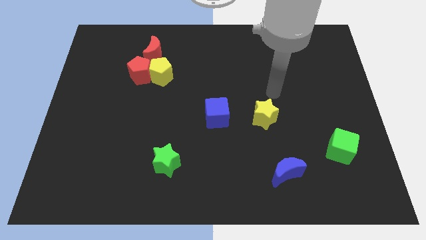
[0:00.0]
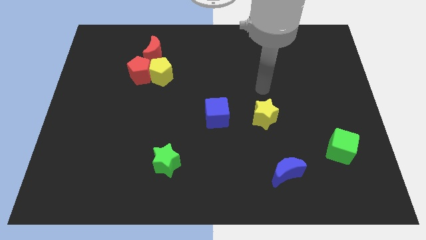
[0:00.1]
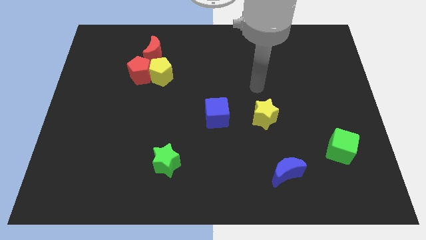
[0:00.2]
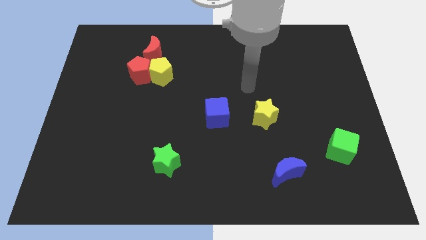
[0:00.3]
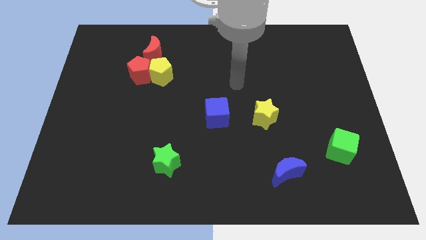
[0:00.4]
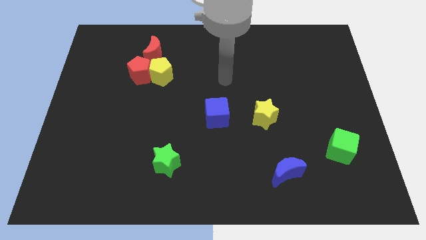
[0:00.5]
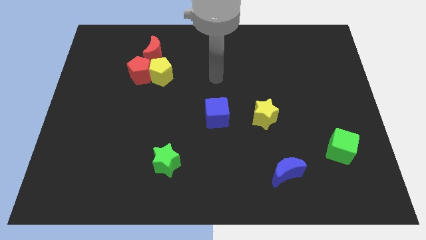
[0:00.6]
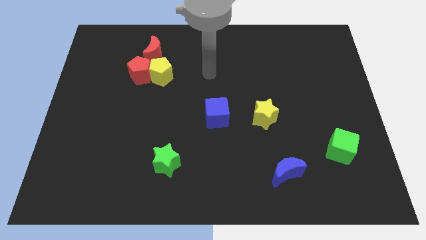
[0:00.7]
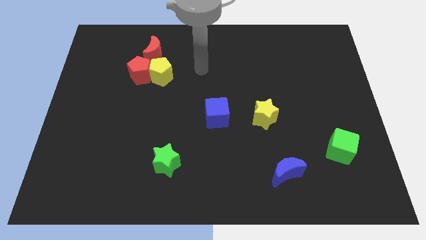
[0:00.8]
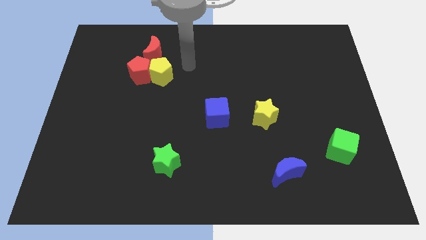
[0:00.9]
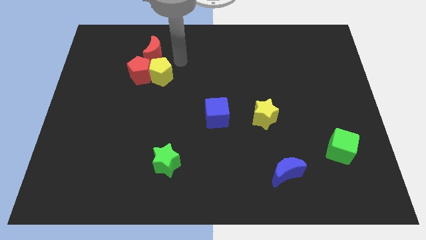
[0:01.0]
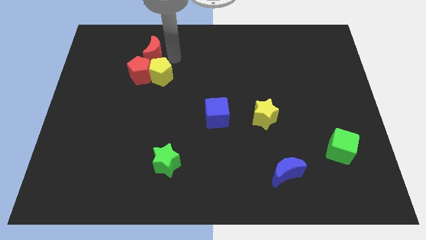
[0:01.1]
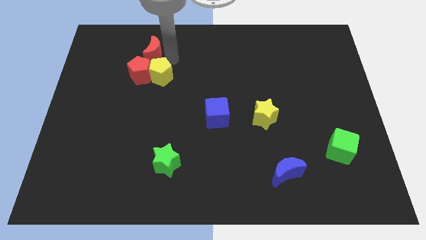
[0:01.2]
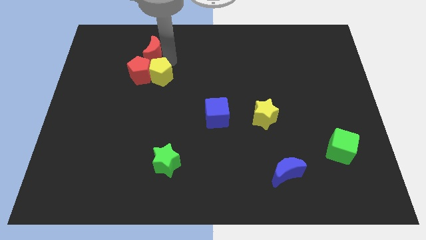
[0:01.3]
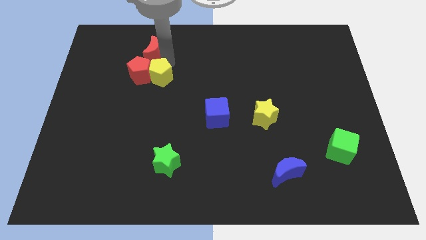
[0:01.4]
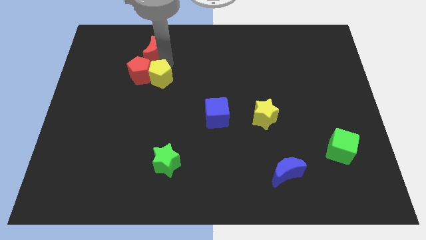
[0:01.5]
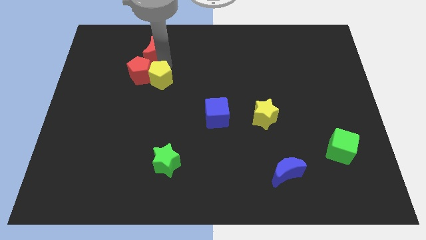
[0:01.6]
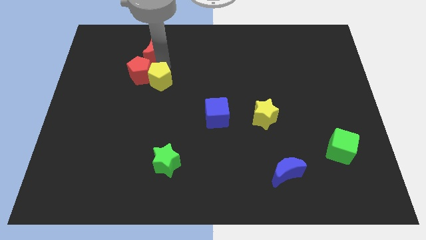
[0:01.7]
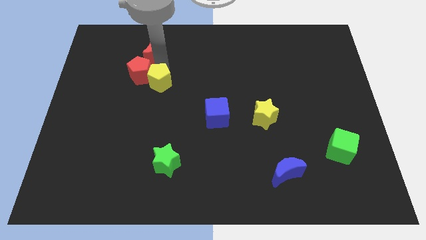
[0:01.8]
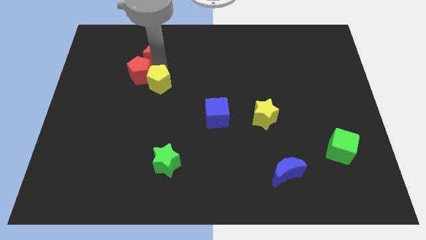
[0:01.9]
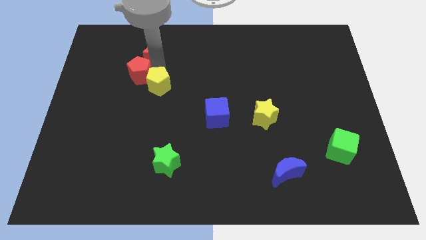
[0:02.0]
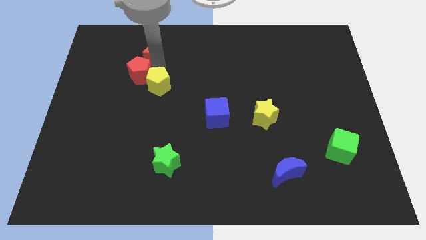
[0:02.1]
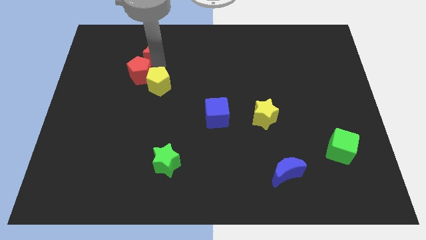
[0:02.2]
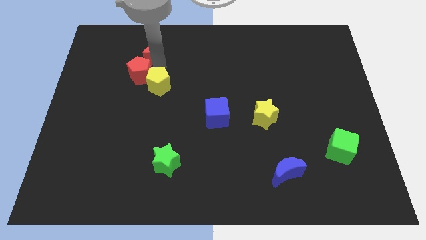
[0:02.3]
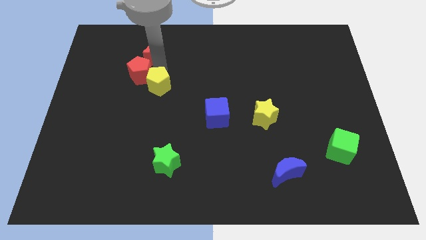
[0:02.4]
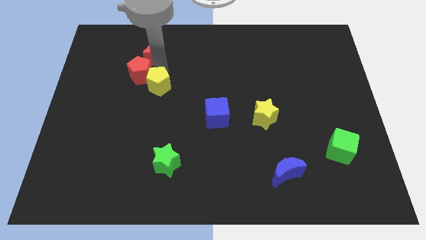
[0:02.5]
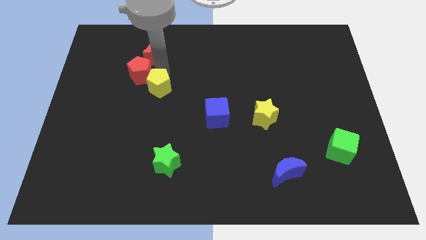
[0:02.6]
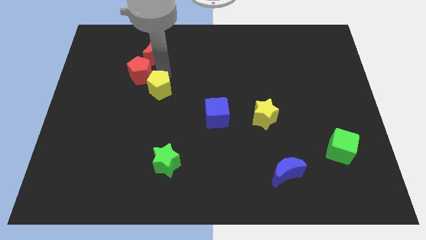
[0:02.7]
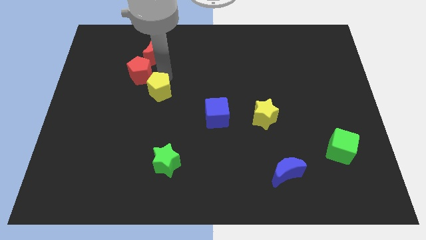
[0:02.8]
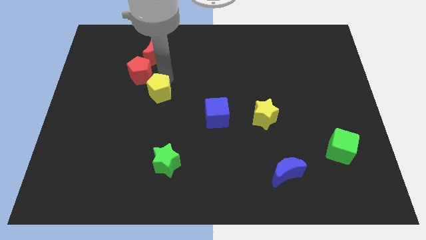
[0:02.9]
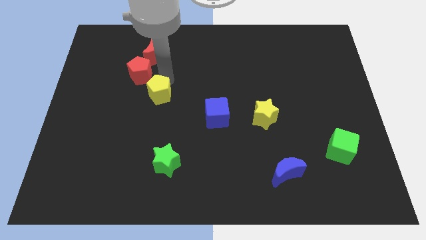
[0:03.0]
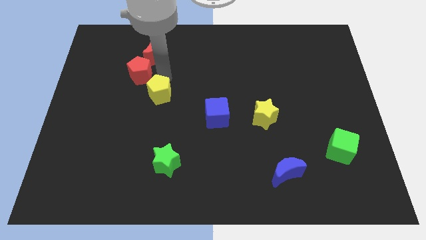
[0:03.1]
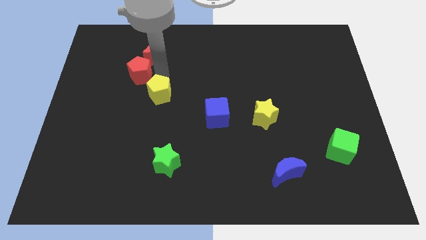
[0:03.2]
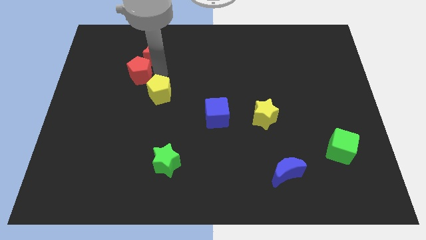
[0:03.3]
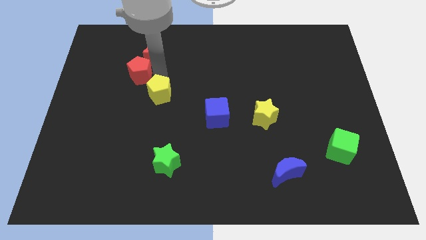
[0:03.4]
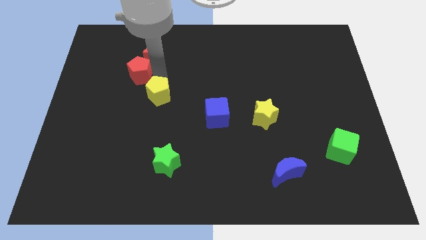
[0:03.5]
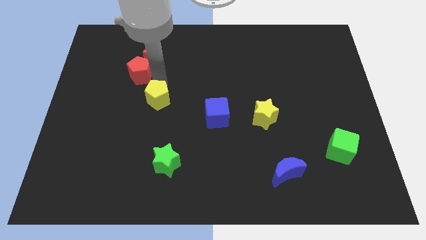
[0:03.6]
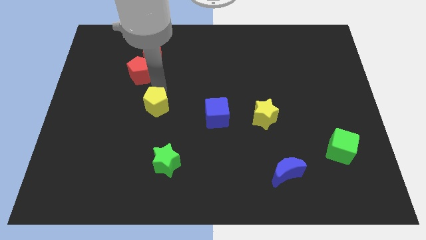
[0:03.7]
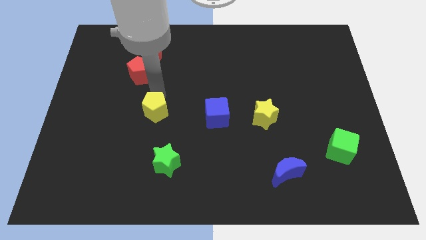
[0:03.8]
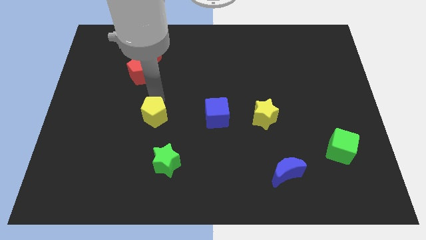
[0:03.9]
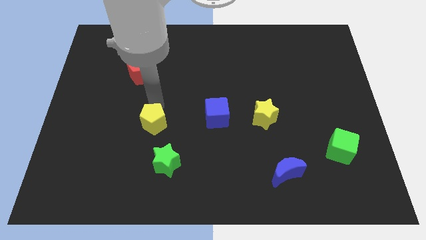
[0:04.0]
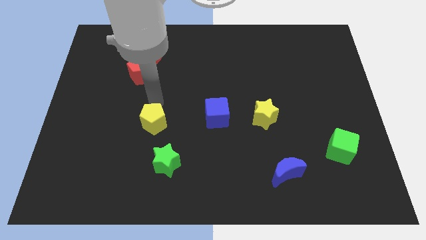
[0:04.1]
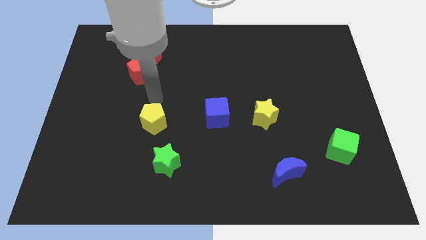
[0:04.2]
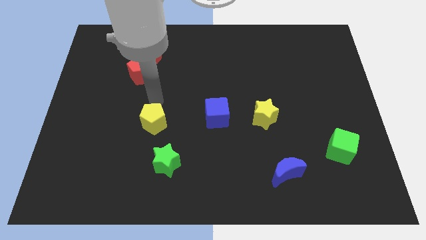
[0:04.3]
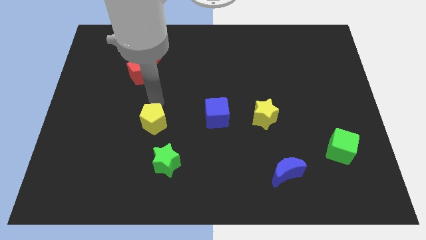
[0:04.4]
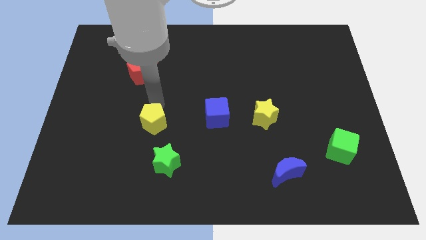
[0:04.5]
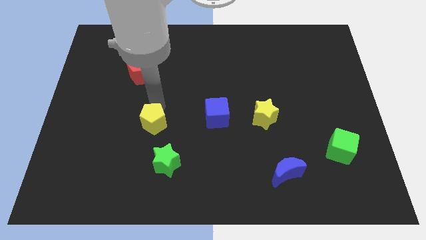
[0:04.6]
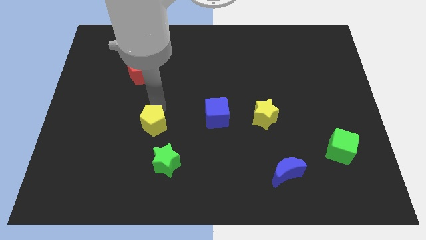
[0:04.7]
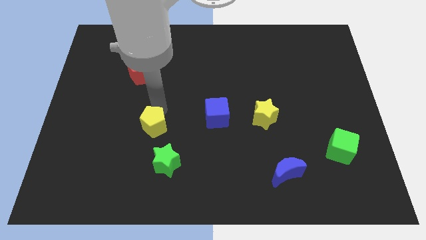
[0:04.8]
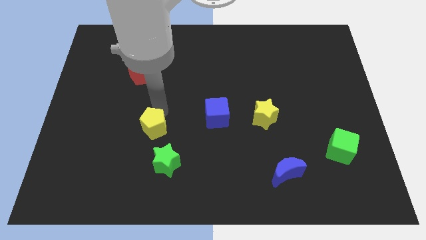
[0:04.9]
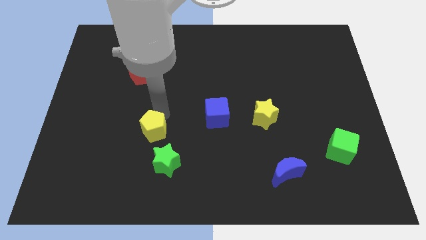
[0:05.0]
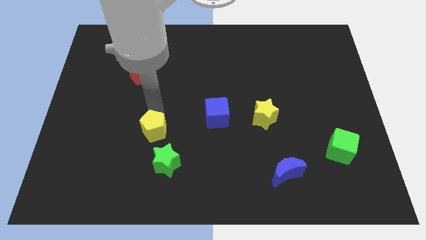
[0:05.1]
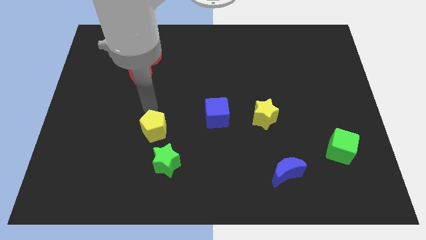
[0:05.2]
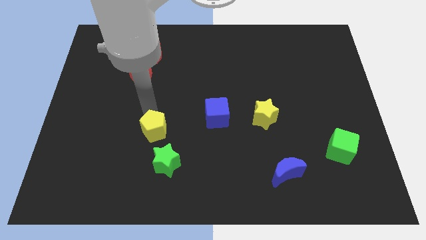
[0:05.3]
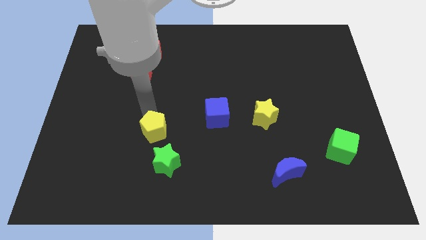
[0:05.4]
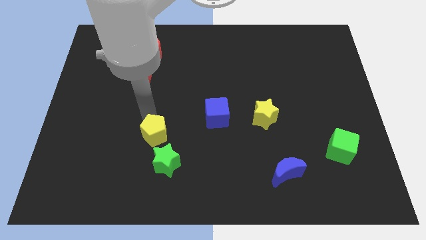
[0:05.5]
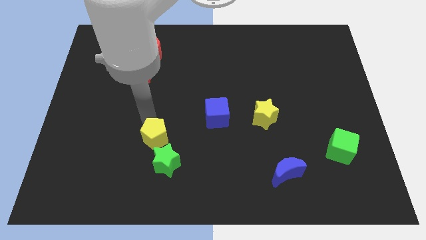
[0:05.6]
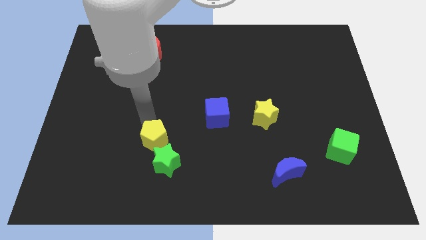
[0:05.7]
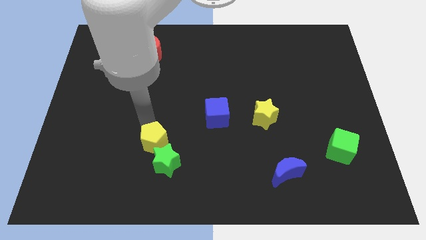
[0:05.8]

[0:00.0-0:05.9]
put the yellow pentagon next to the green star

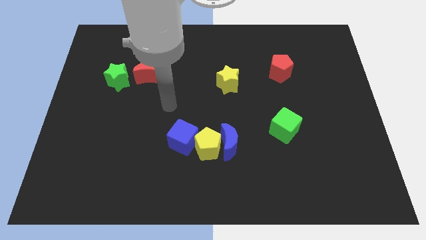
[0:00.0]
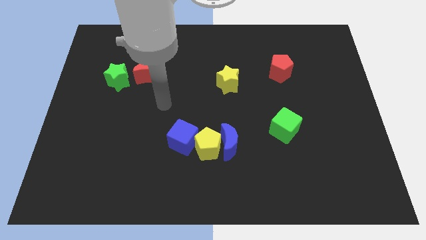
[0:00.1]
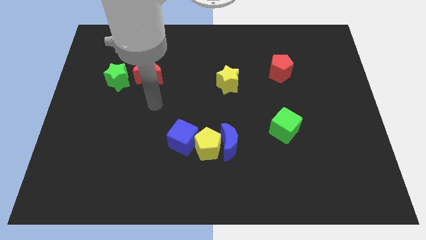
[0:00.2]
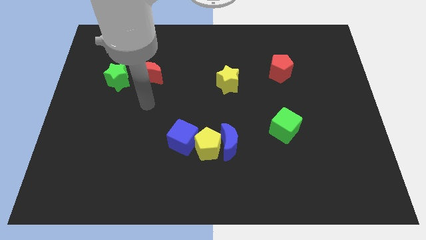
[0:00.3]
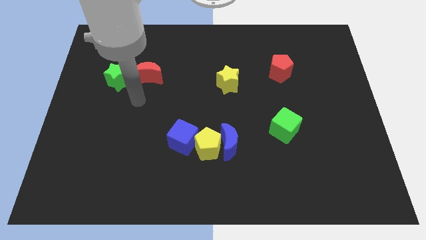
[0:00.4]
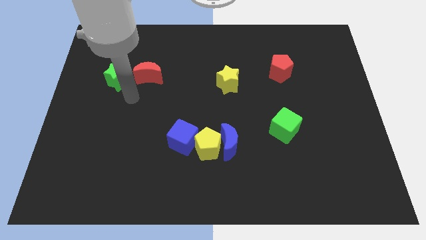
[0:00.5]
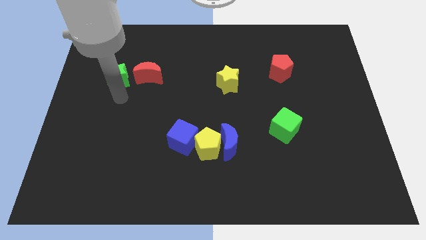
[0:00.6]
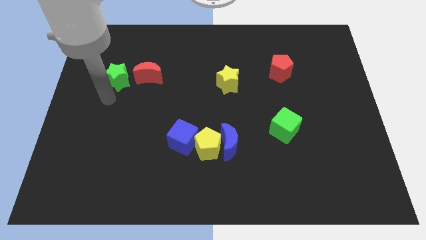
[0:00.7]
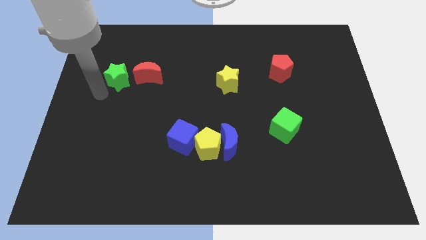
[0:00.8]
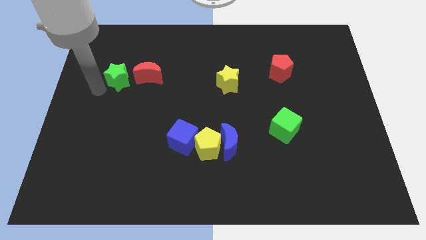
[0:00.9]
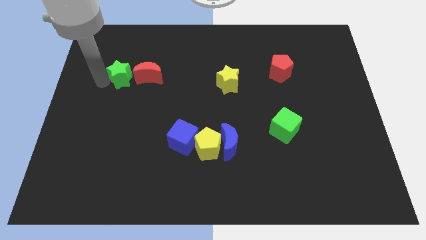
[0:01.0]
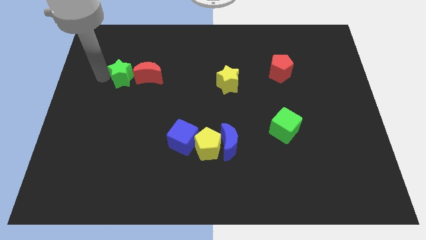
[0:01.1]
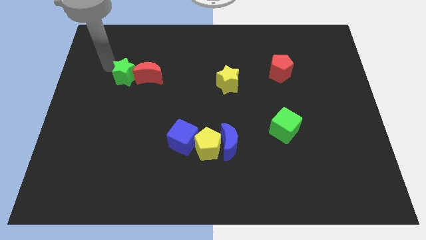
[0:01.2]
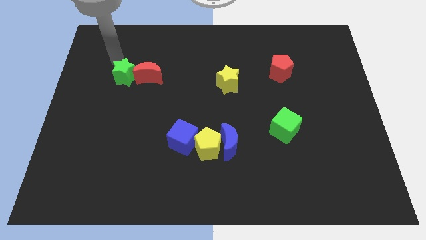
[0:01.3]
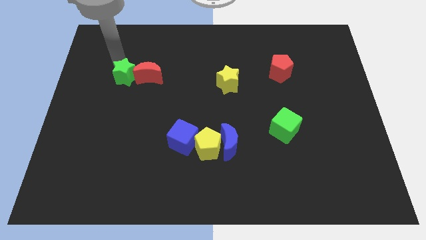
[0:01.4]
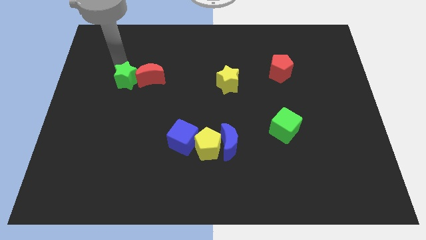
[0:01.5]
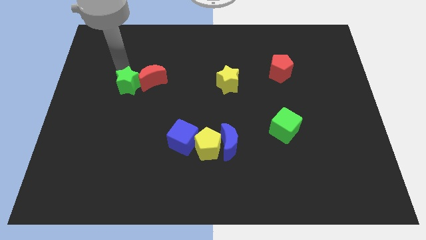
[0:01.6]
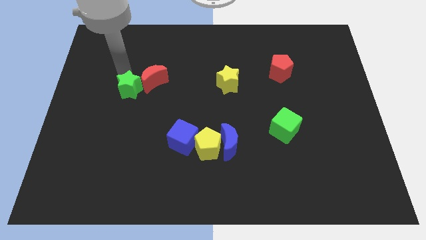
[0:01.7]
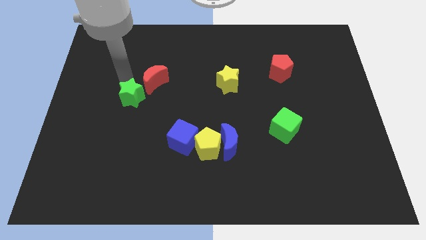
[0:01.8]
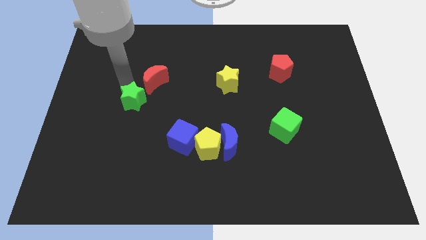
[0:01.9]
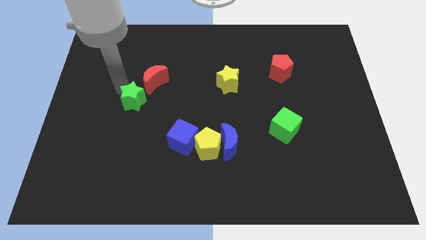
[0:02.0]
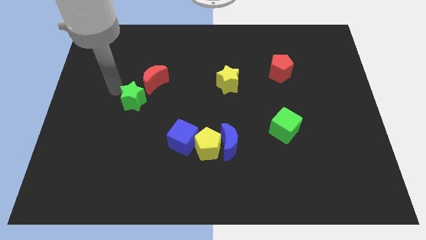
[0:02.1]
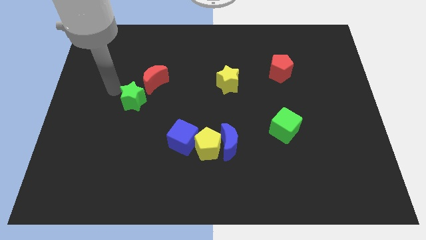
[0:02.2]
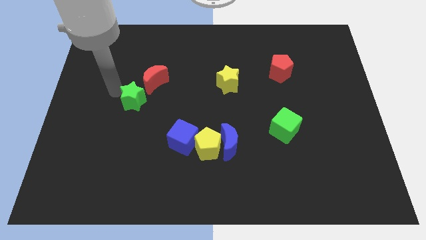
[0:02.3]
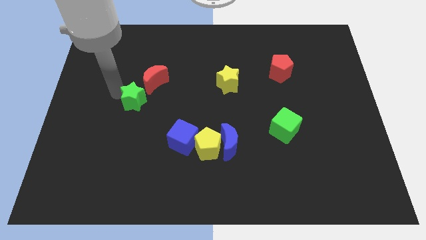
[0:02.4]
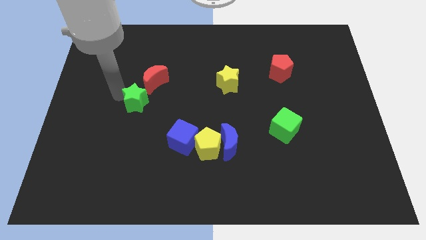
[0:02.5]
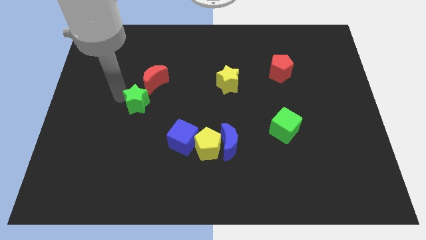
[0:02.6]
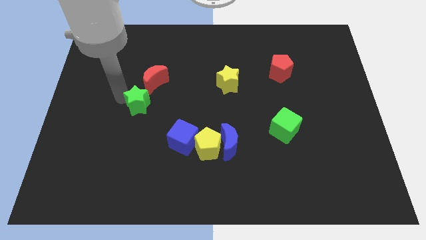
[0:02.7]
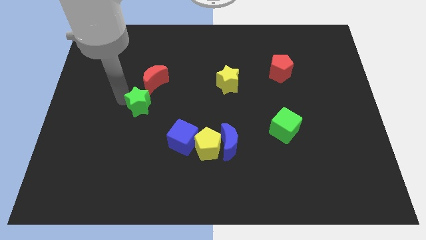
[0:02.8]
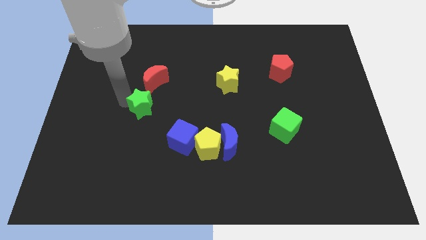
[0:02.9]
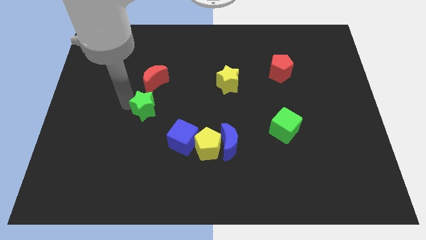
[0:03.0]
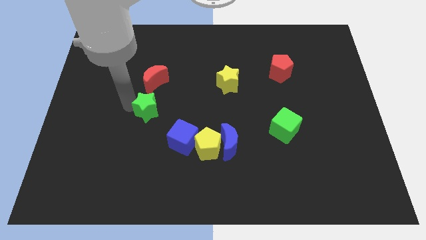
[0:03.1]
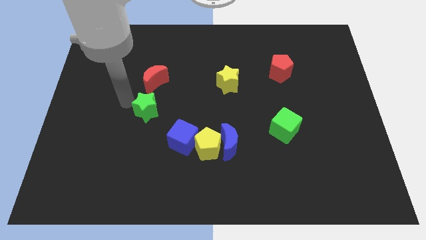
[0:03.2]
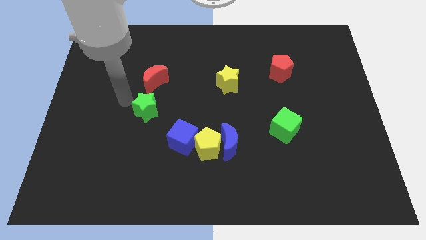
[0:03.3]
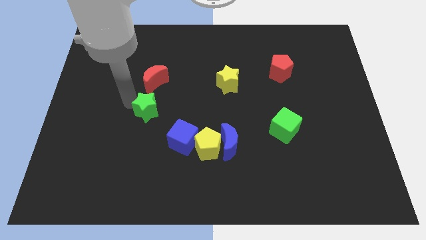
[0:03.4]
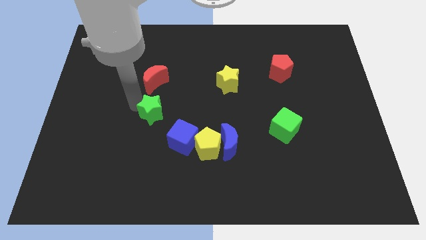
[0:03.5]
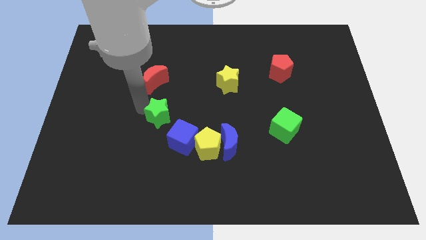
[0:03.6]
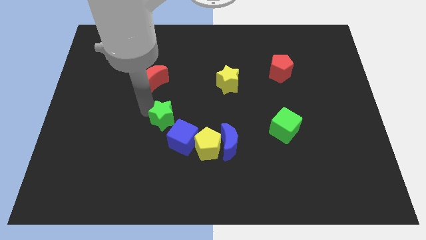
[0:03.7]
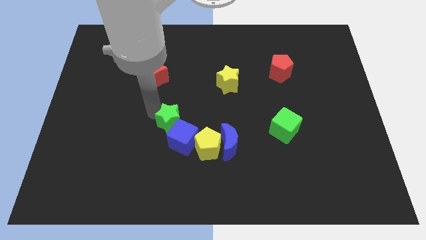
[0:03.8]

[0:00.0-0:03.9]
put the green star towards the blue cube
